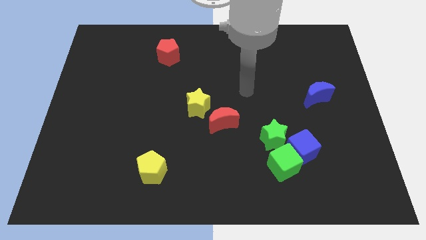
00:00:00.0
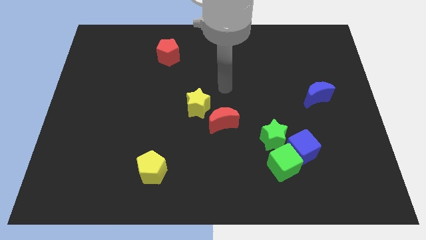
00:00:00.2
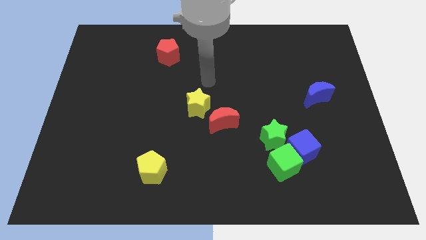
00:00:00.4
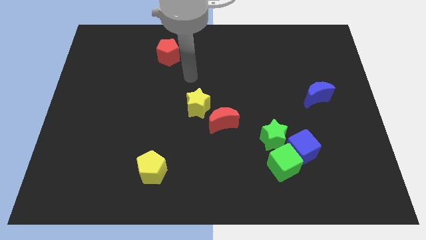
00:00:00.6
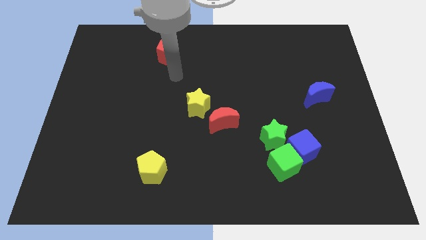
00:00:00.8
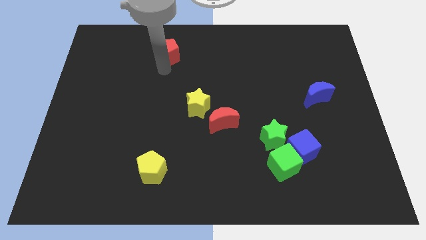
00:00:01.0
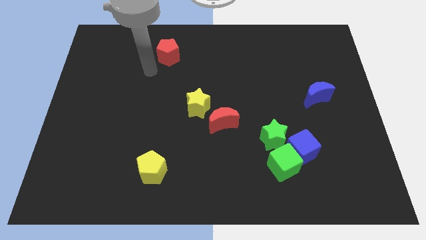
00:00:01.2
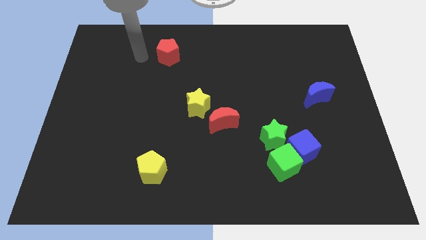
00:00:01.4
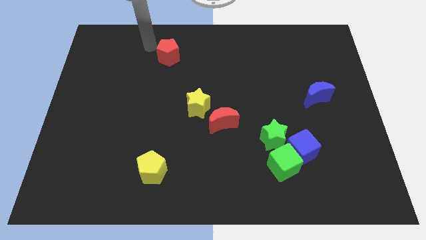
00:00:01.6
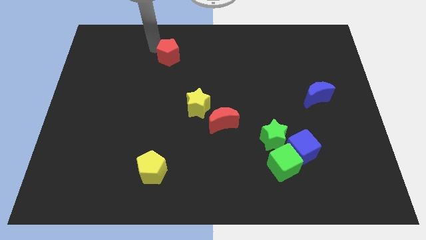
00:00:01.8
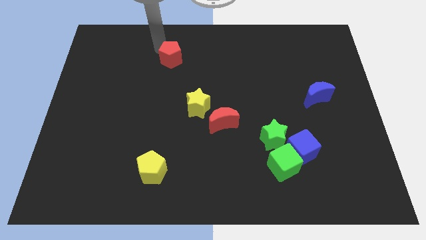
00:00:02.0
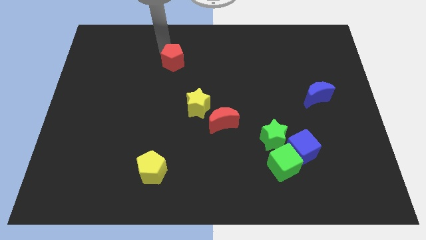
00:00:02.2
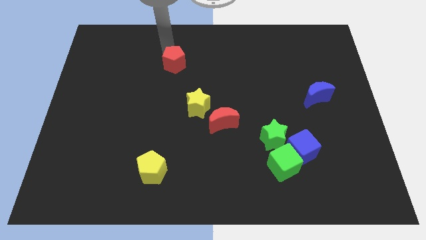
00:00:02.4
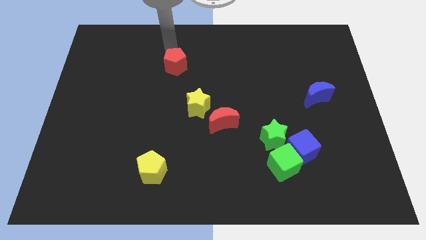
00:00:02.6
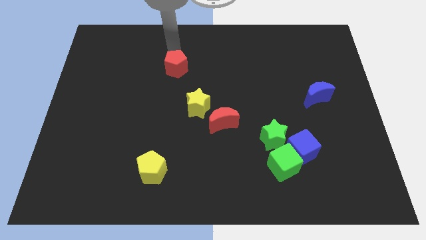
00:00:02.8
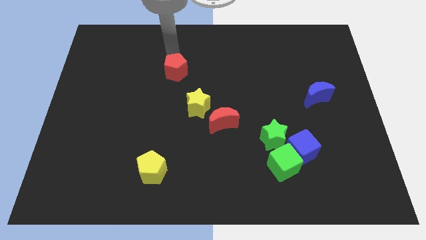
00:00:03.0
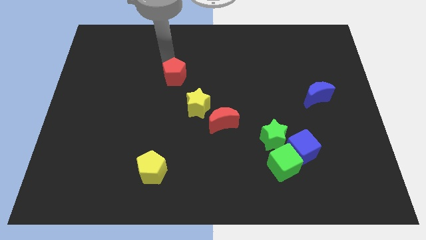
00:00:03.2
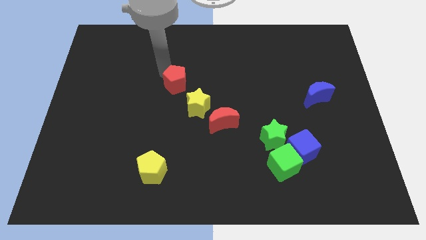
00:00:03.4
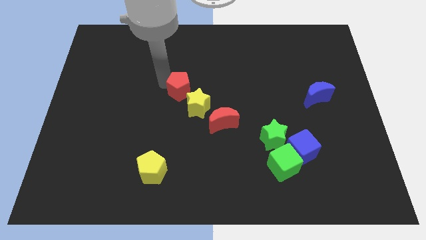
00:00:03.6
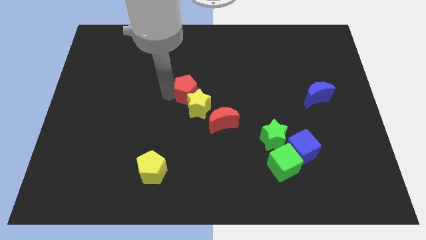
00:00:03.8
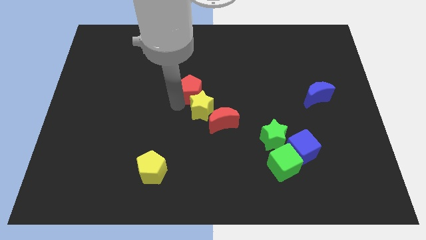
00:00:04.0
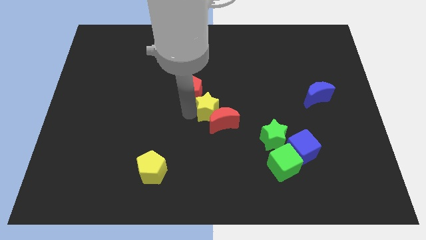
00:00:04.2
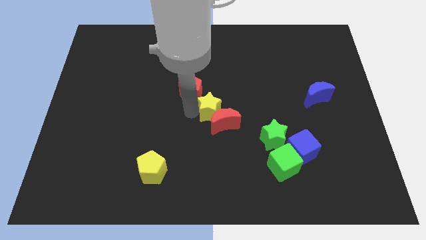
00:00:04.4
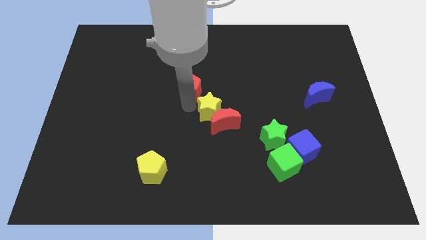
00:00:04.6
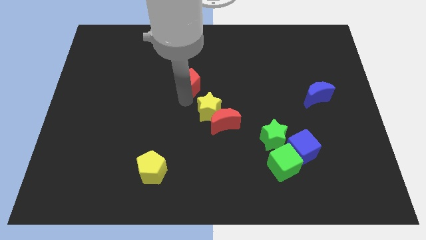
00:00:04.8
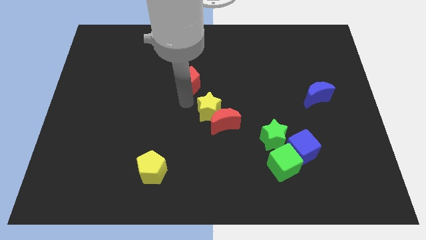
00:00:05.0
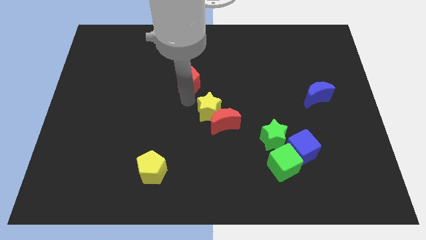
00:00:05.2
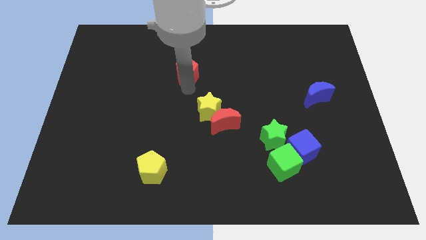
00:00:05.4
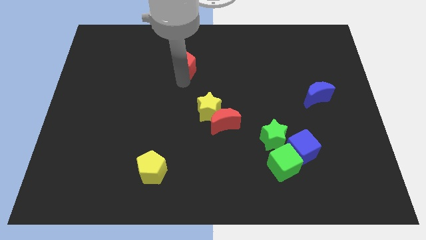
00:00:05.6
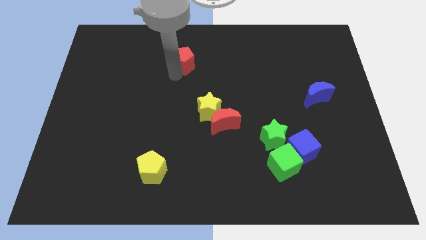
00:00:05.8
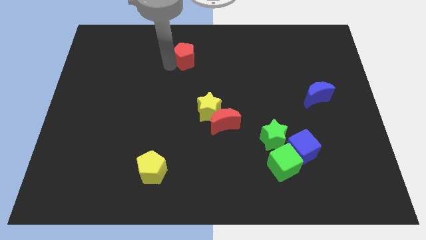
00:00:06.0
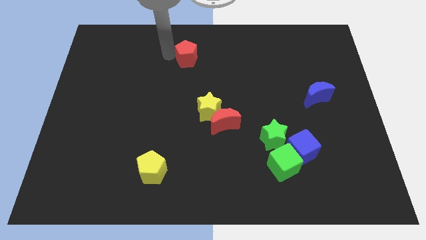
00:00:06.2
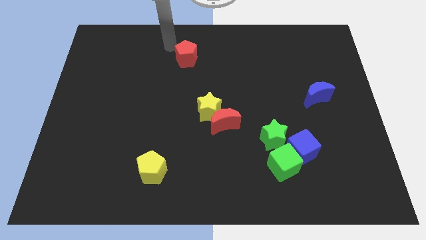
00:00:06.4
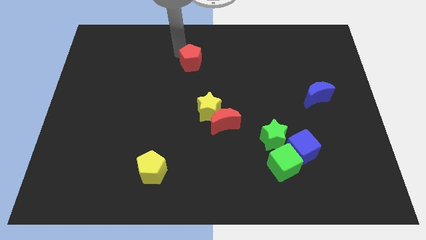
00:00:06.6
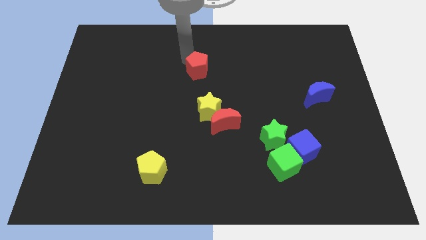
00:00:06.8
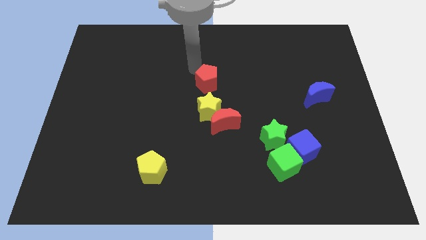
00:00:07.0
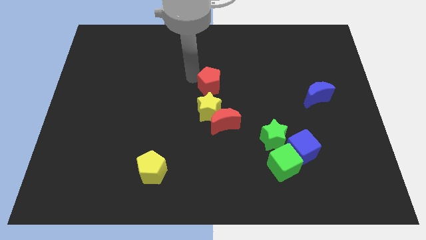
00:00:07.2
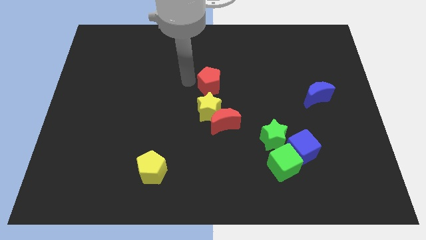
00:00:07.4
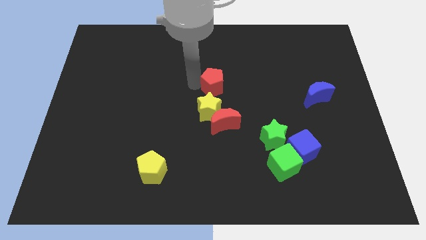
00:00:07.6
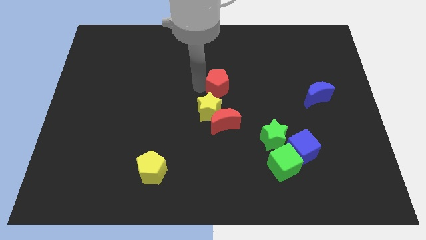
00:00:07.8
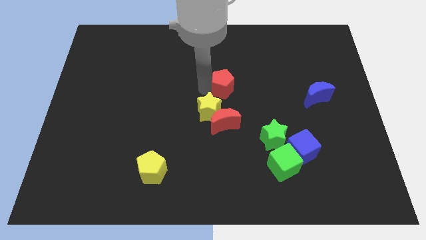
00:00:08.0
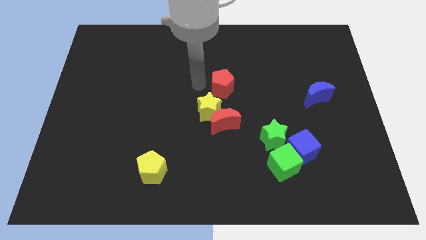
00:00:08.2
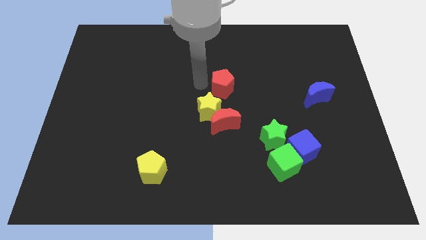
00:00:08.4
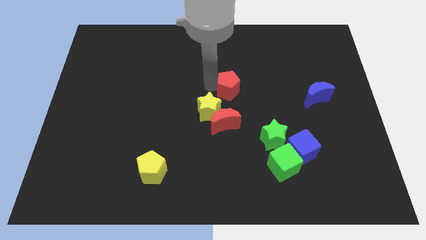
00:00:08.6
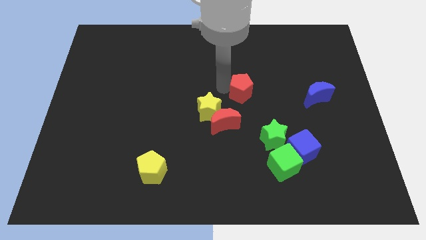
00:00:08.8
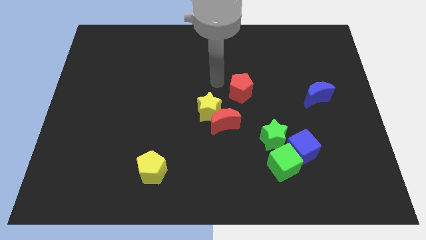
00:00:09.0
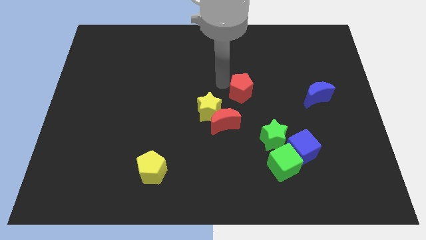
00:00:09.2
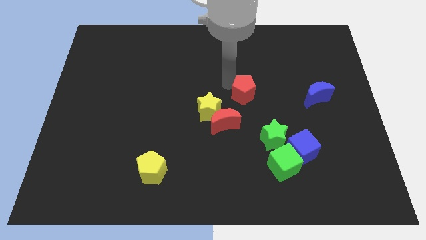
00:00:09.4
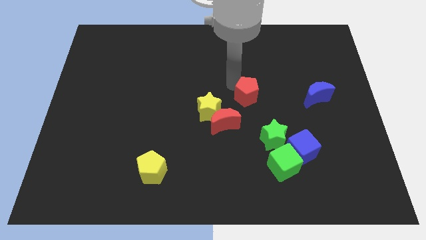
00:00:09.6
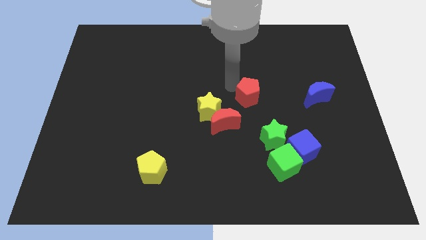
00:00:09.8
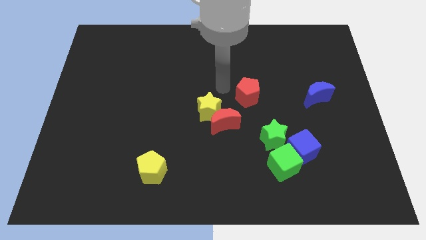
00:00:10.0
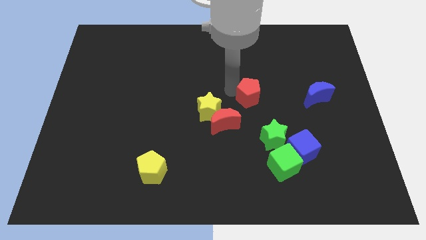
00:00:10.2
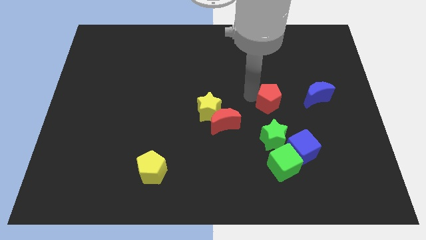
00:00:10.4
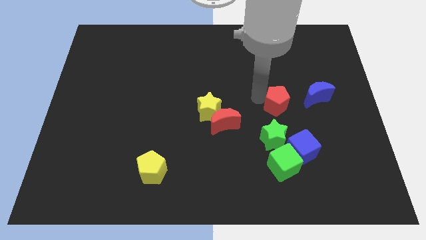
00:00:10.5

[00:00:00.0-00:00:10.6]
push the red pentagon to the top of the blue cube
